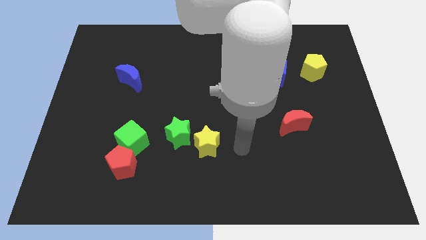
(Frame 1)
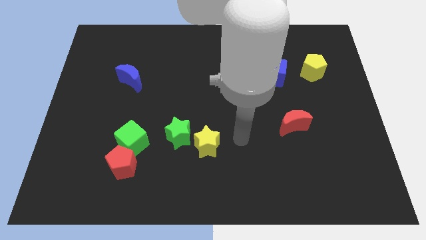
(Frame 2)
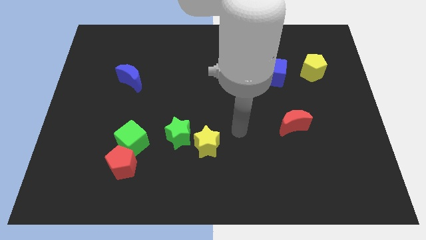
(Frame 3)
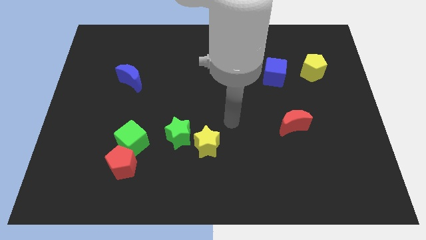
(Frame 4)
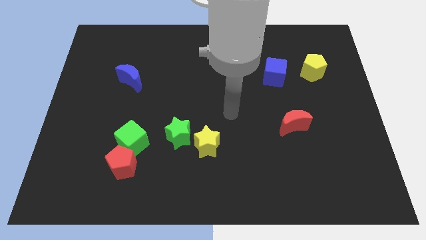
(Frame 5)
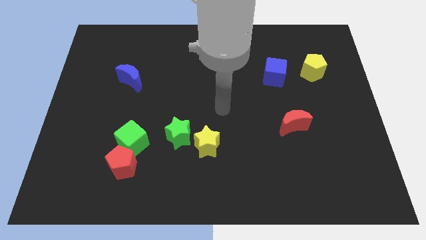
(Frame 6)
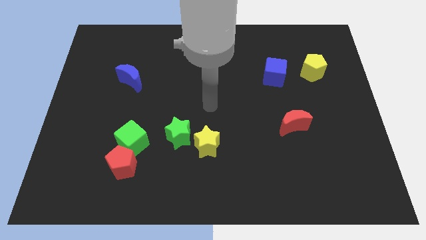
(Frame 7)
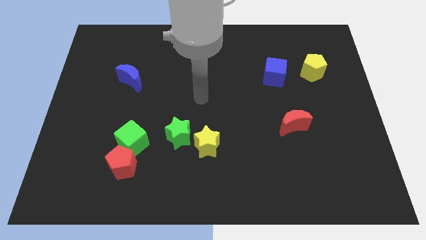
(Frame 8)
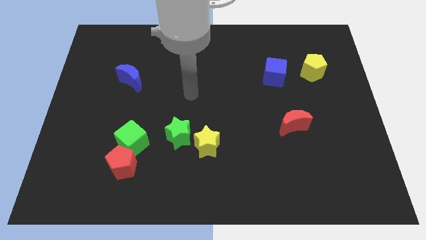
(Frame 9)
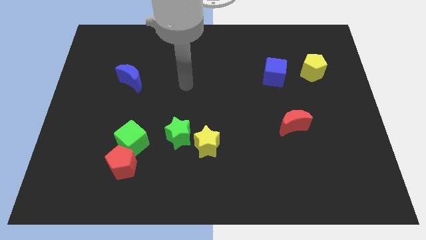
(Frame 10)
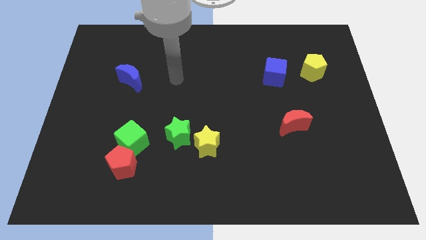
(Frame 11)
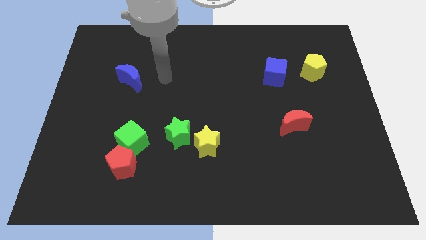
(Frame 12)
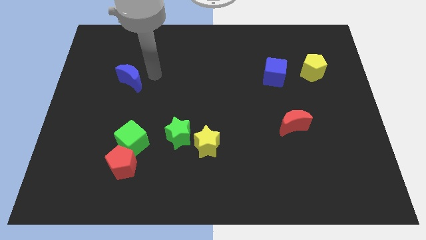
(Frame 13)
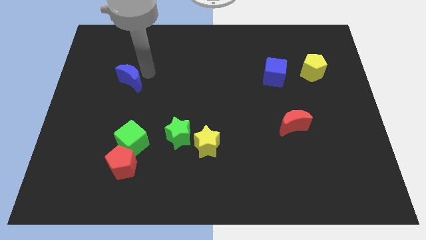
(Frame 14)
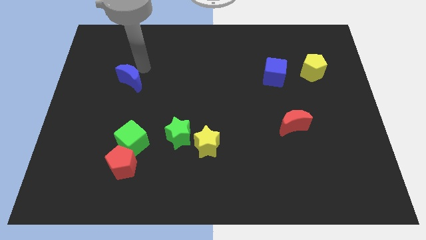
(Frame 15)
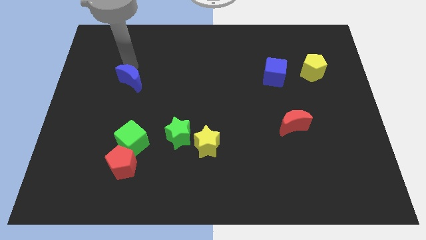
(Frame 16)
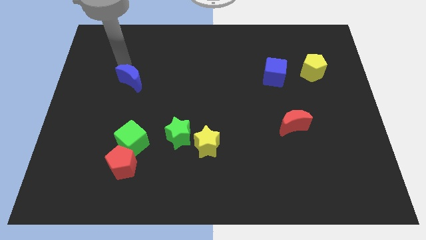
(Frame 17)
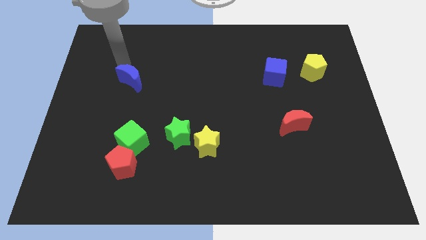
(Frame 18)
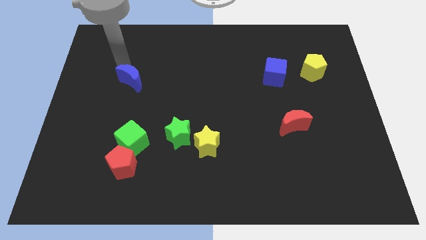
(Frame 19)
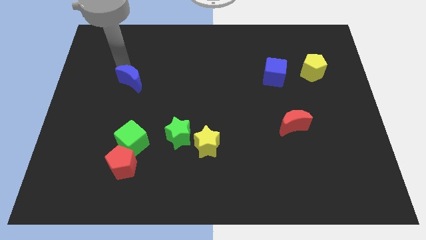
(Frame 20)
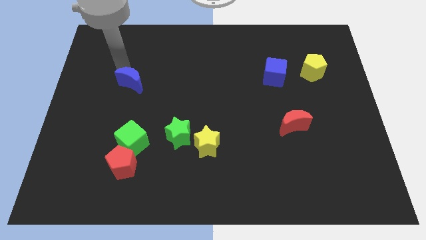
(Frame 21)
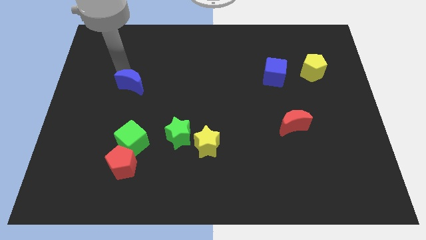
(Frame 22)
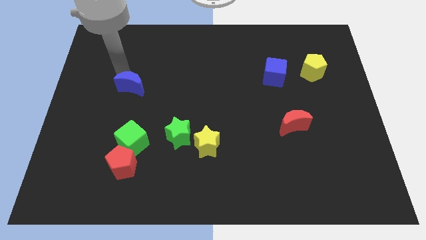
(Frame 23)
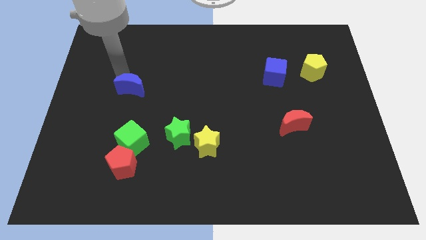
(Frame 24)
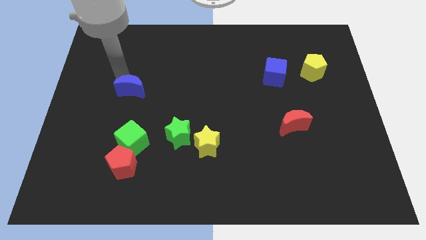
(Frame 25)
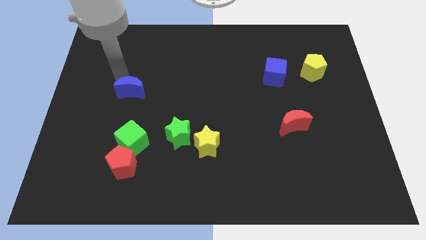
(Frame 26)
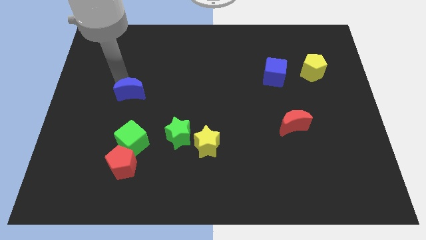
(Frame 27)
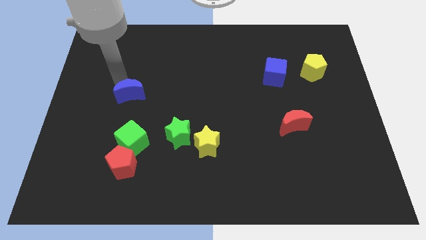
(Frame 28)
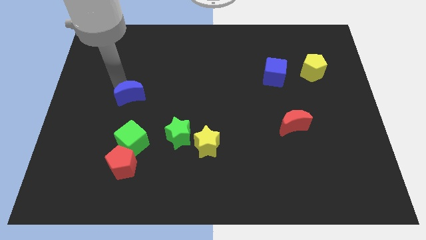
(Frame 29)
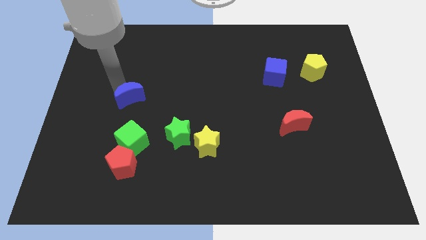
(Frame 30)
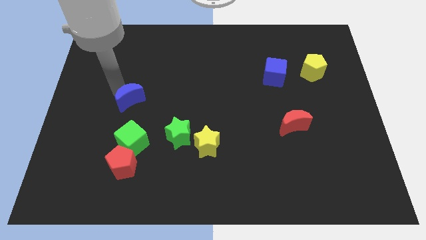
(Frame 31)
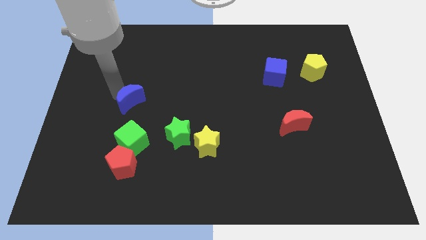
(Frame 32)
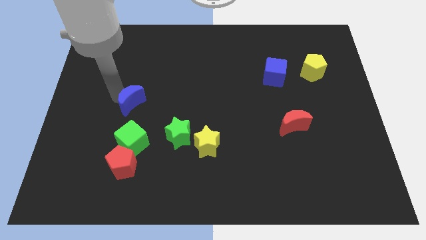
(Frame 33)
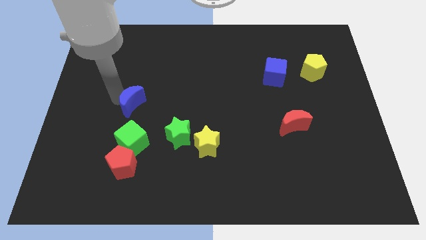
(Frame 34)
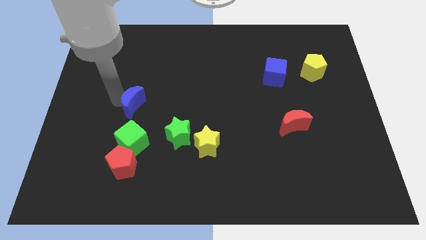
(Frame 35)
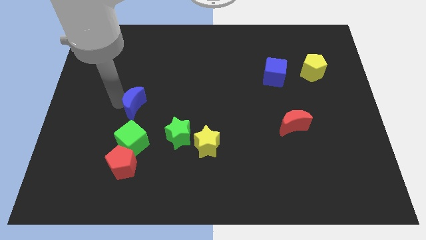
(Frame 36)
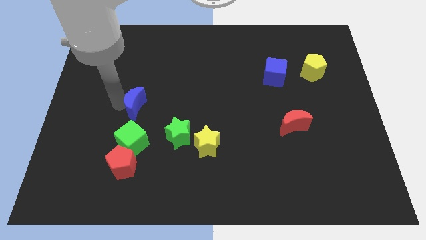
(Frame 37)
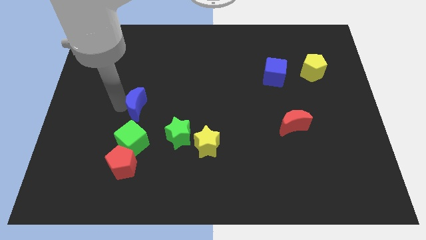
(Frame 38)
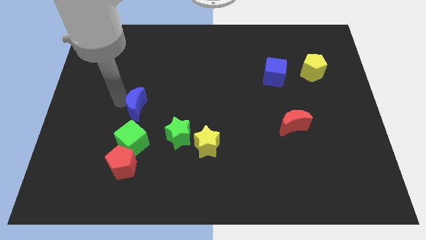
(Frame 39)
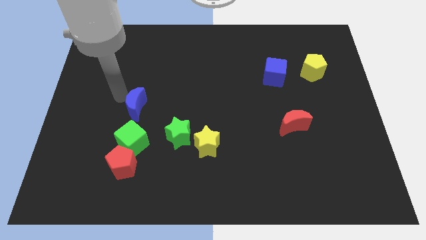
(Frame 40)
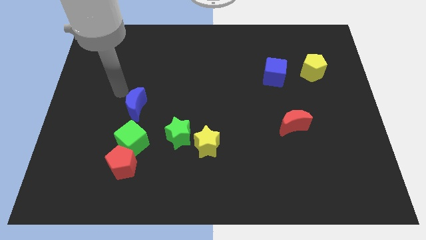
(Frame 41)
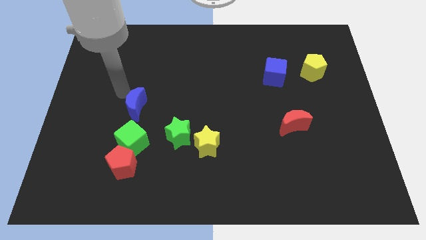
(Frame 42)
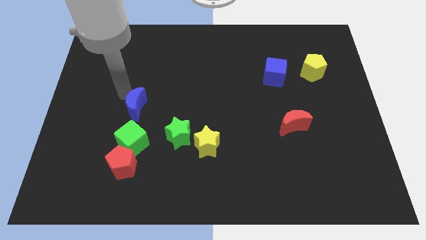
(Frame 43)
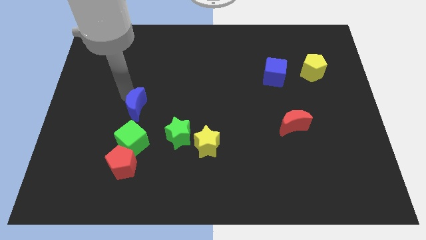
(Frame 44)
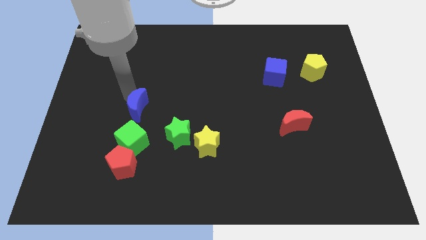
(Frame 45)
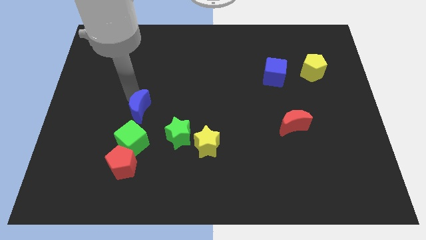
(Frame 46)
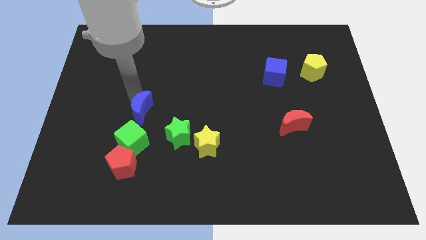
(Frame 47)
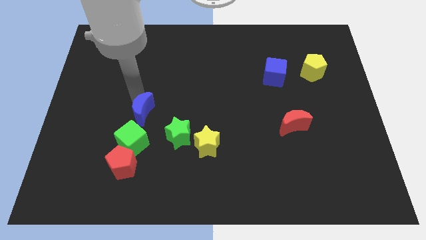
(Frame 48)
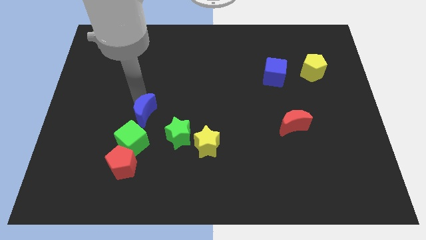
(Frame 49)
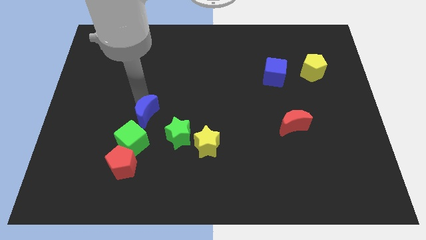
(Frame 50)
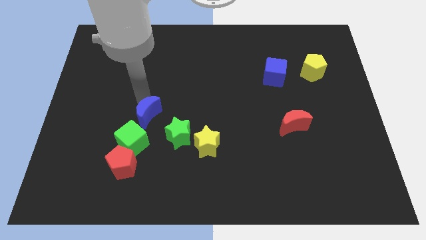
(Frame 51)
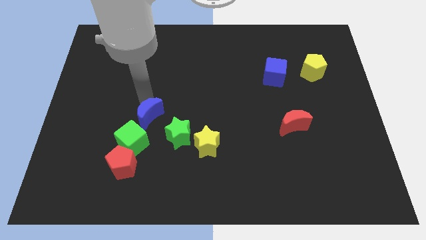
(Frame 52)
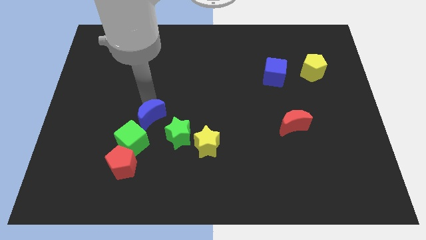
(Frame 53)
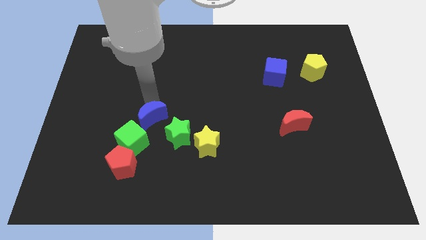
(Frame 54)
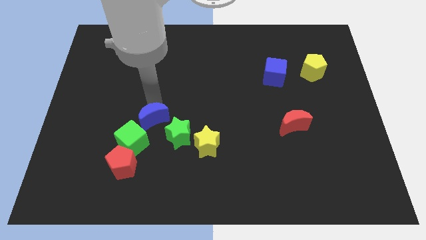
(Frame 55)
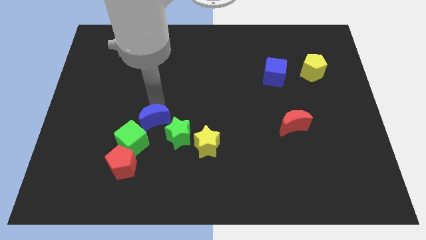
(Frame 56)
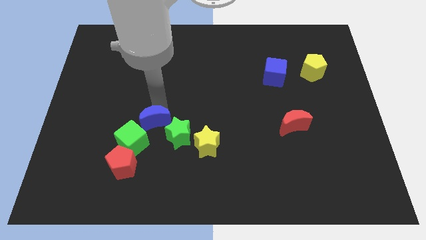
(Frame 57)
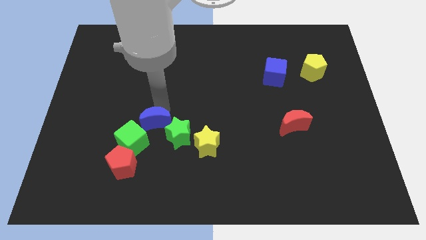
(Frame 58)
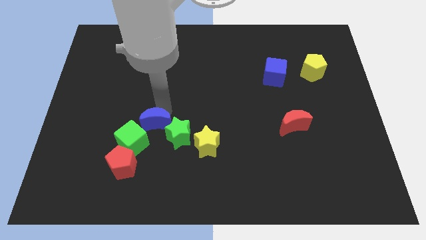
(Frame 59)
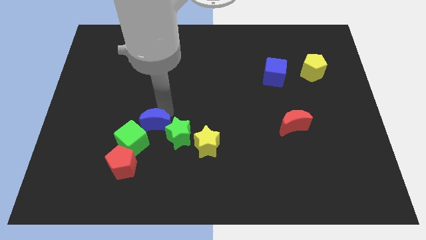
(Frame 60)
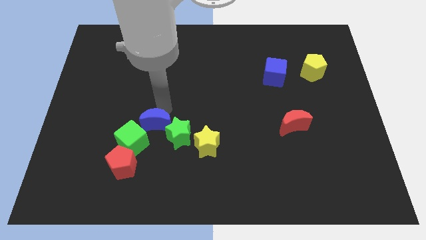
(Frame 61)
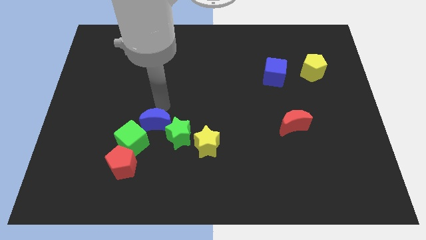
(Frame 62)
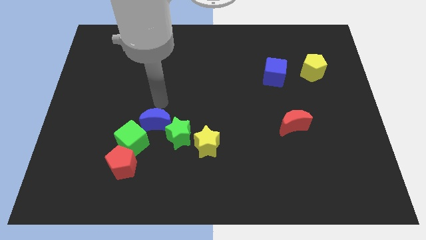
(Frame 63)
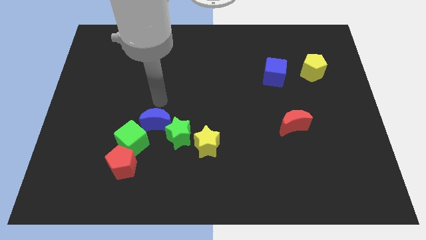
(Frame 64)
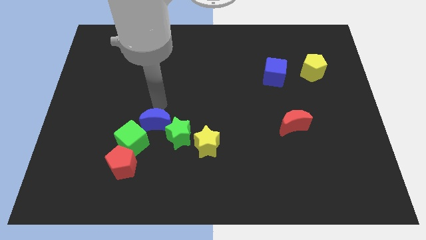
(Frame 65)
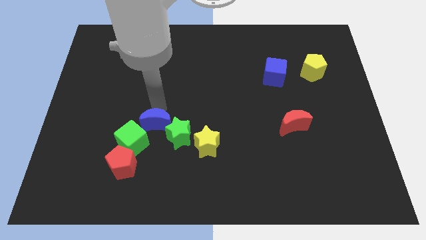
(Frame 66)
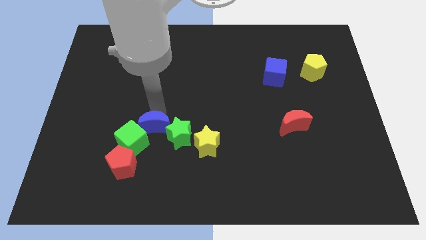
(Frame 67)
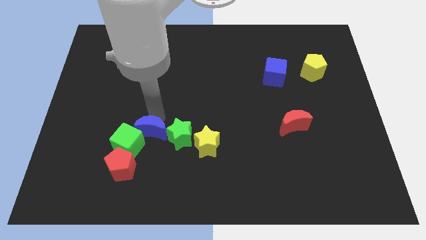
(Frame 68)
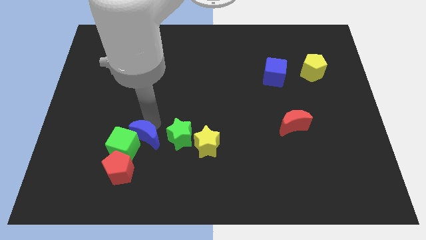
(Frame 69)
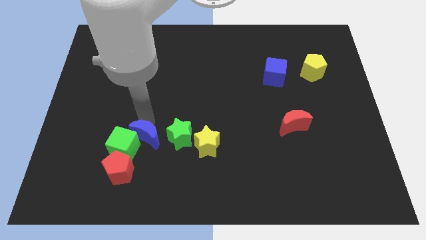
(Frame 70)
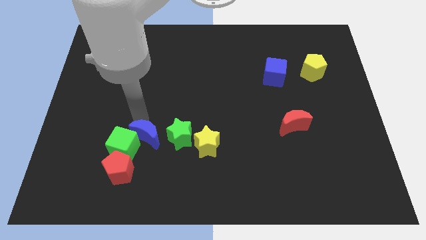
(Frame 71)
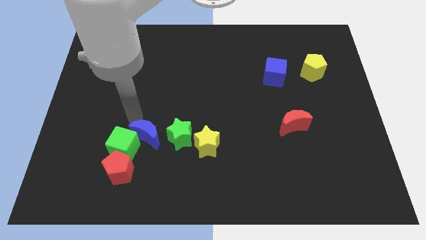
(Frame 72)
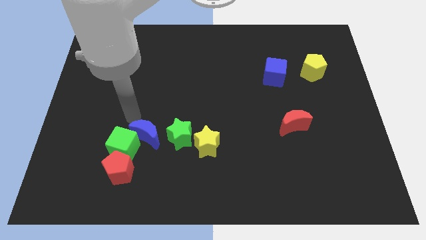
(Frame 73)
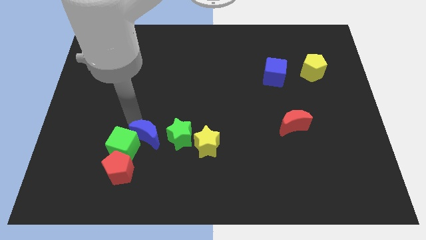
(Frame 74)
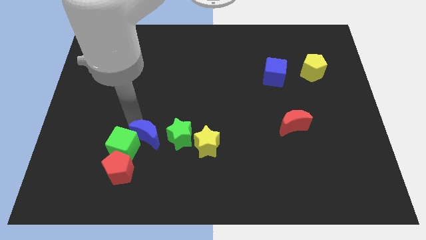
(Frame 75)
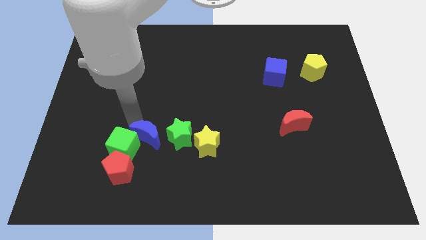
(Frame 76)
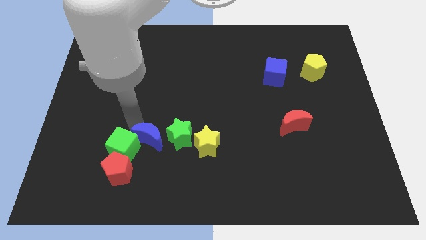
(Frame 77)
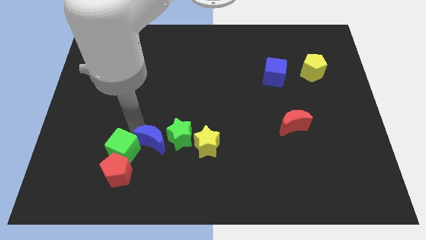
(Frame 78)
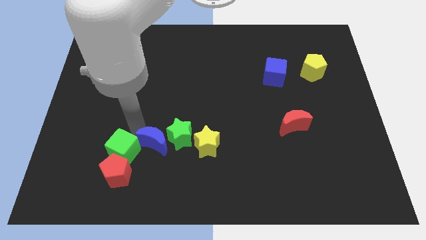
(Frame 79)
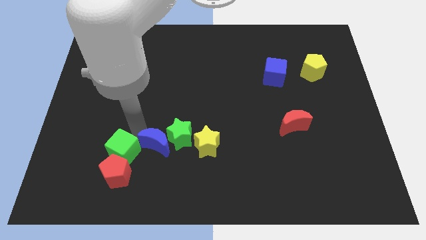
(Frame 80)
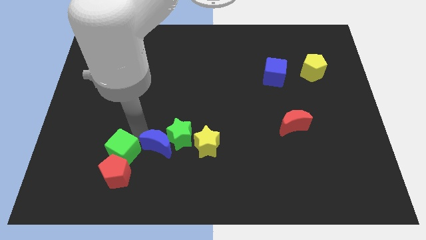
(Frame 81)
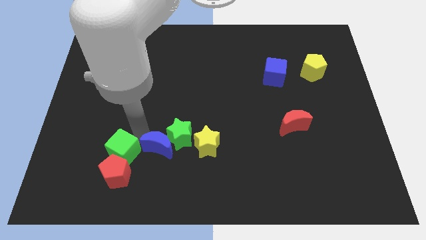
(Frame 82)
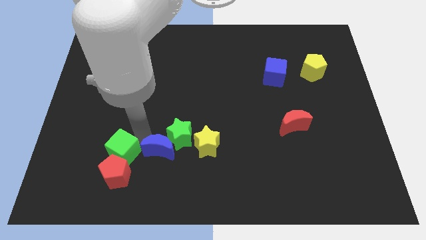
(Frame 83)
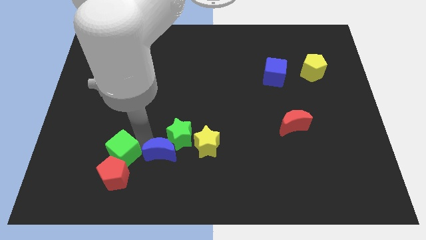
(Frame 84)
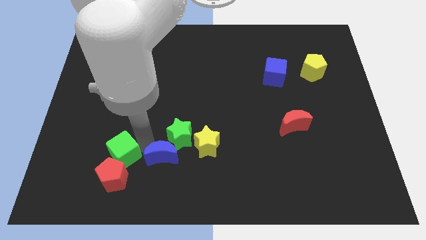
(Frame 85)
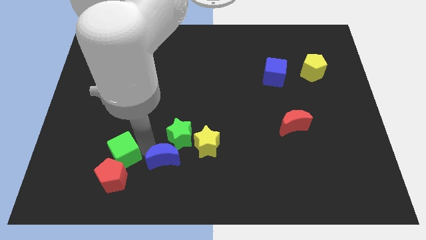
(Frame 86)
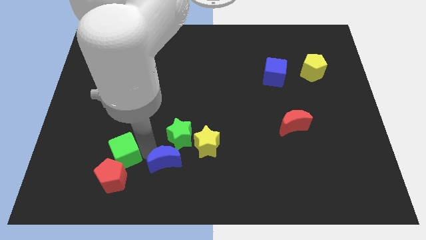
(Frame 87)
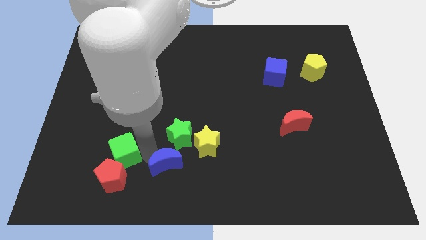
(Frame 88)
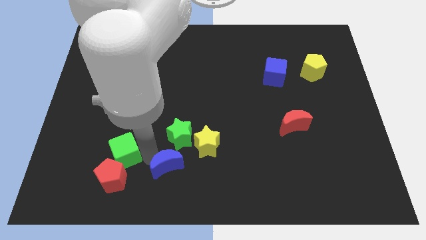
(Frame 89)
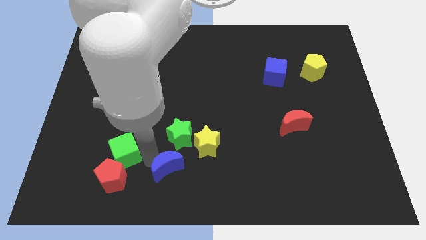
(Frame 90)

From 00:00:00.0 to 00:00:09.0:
slide the blue moon to the bottom
